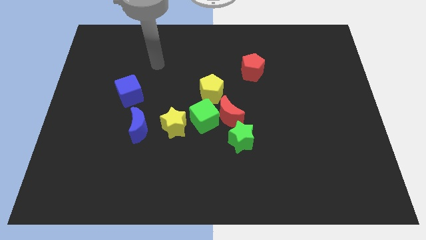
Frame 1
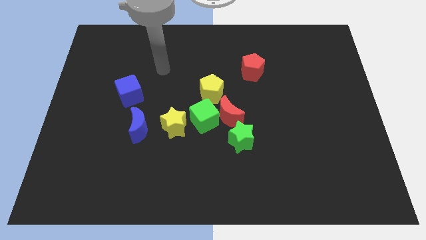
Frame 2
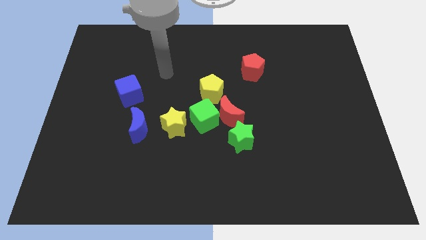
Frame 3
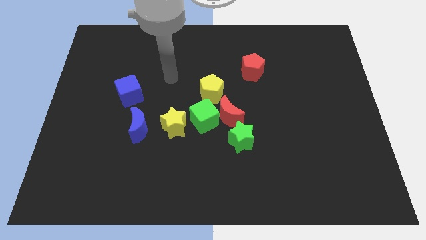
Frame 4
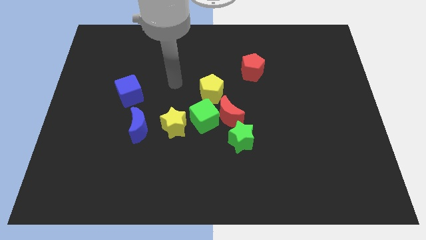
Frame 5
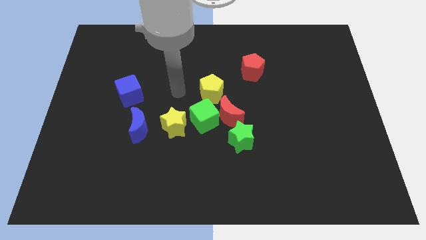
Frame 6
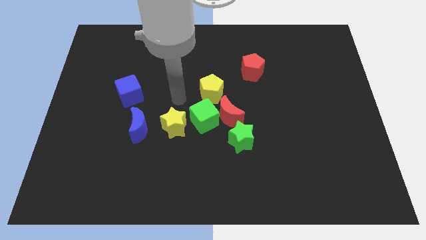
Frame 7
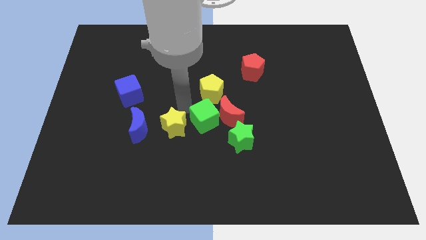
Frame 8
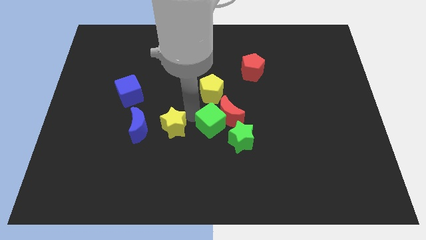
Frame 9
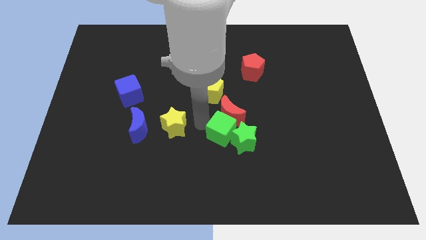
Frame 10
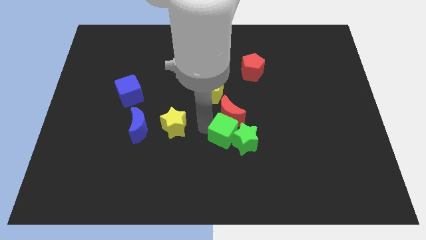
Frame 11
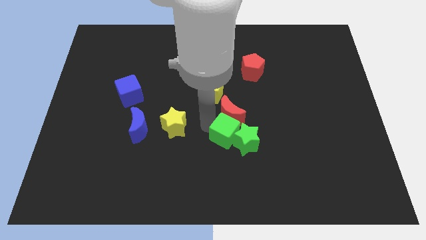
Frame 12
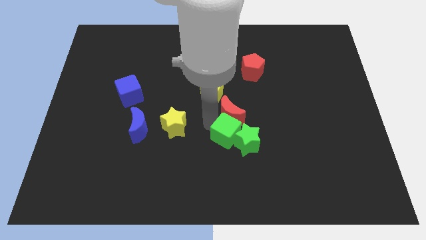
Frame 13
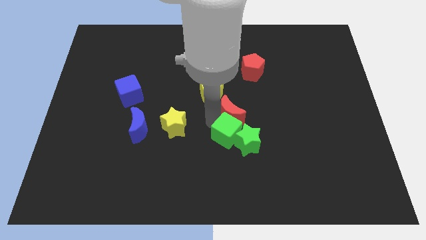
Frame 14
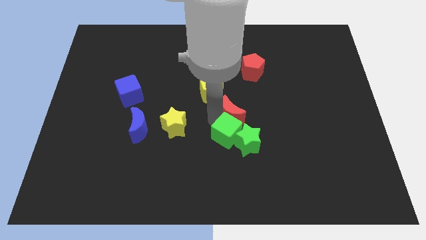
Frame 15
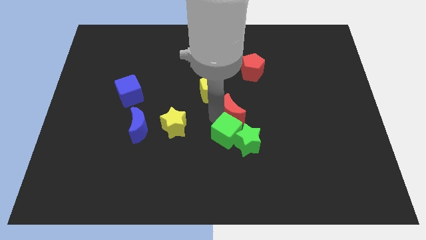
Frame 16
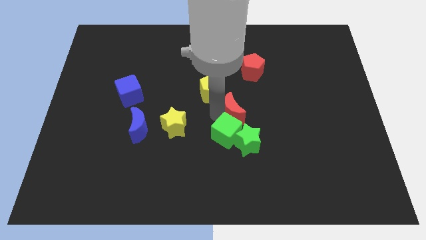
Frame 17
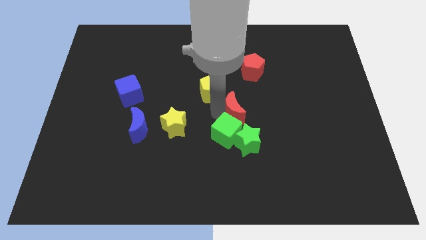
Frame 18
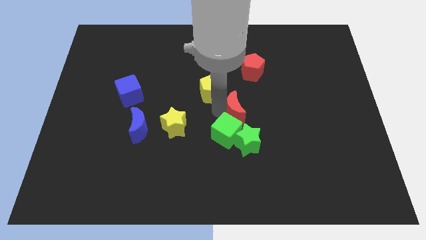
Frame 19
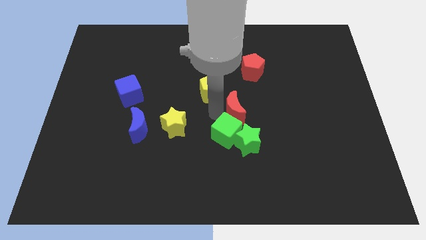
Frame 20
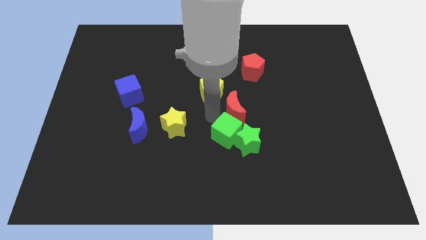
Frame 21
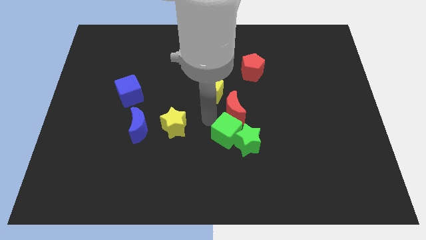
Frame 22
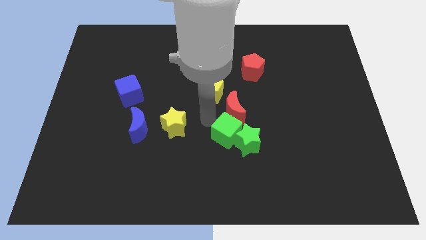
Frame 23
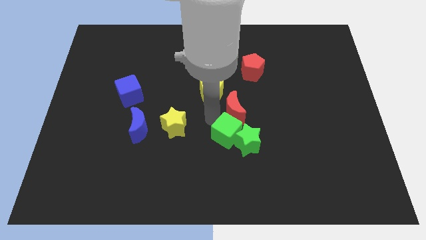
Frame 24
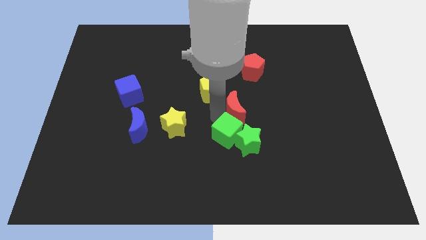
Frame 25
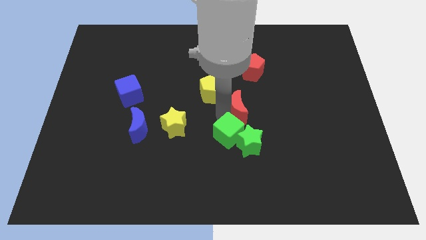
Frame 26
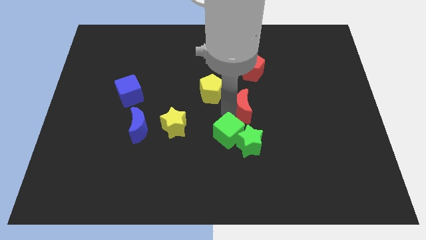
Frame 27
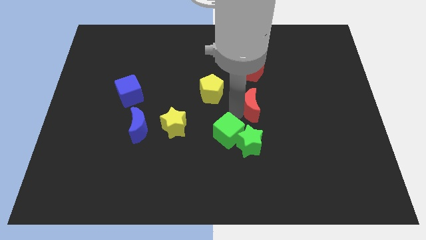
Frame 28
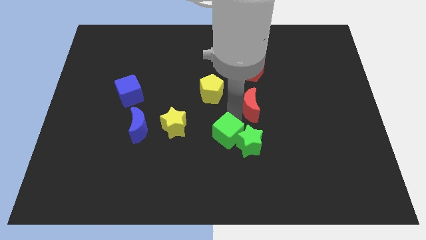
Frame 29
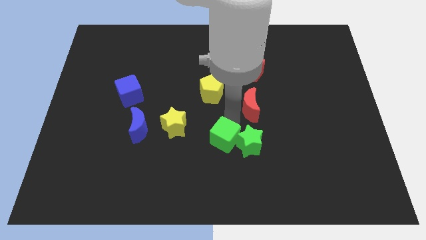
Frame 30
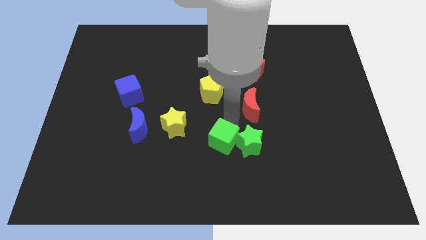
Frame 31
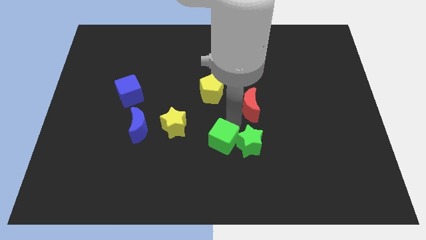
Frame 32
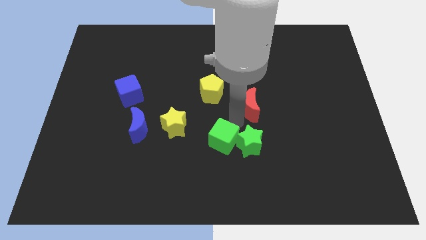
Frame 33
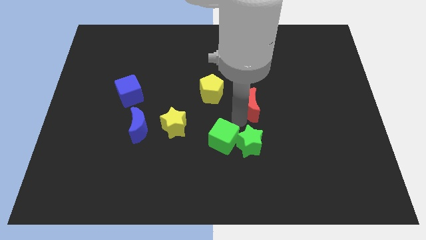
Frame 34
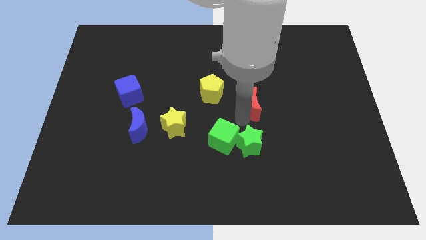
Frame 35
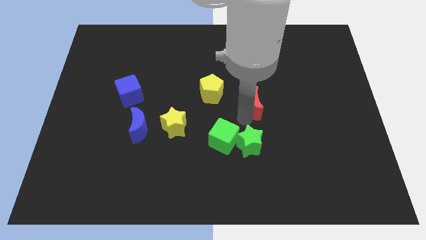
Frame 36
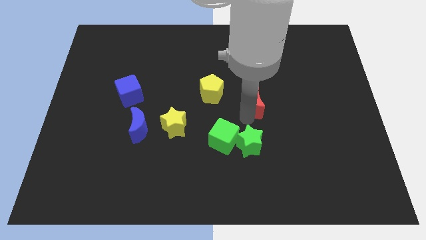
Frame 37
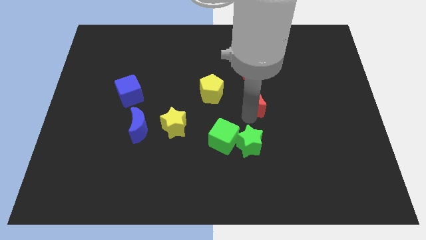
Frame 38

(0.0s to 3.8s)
slide the red moon a bit upwards and to the right

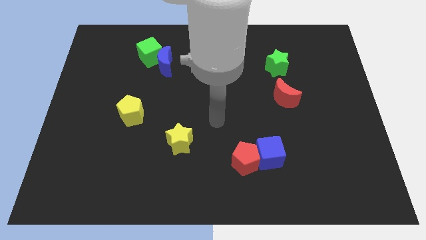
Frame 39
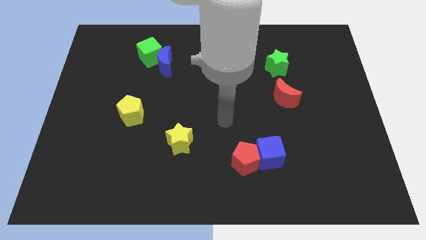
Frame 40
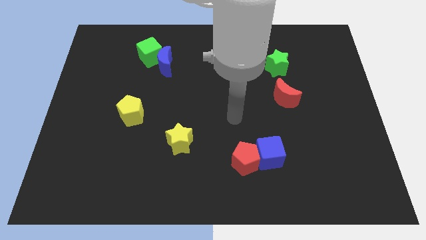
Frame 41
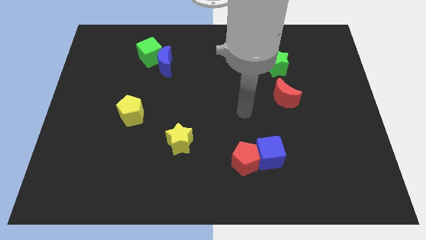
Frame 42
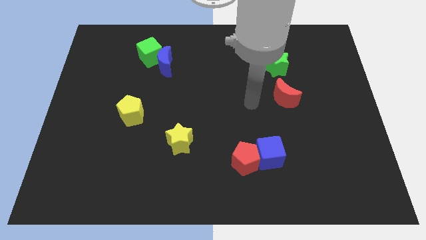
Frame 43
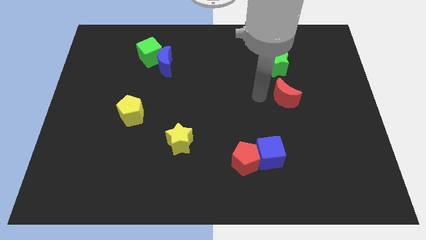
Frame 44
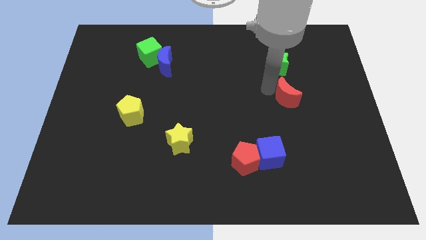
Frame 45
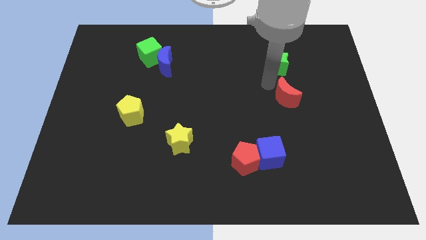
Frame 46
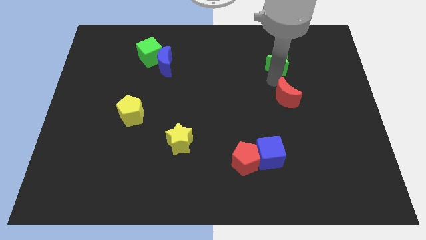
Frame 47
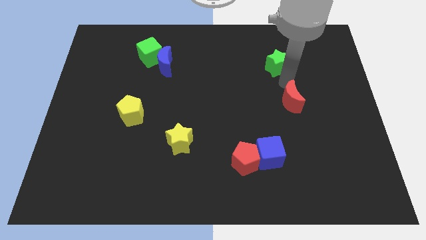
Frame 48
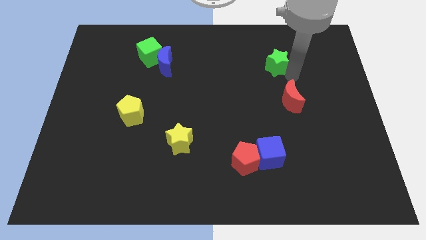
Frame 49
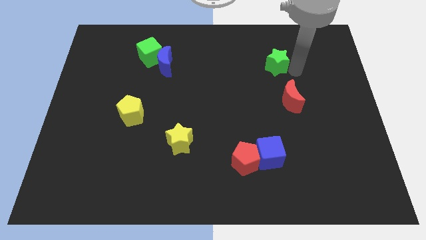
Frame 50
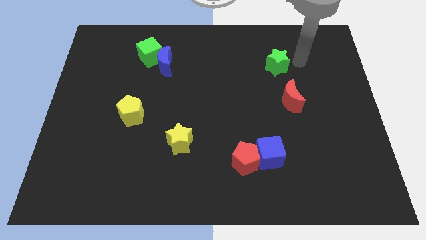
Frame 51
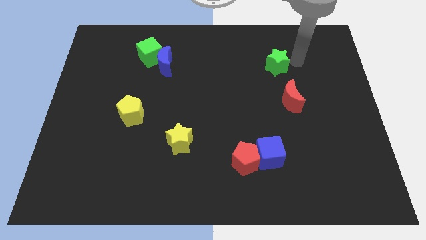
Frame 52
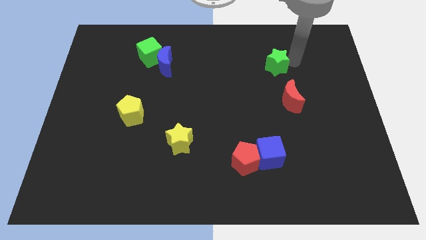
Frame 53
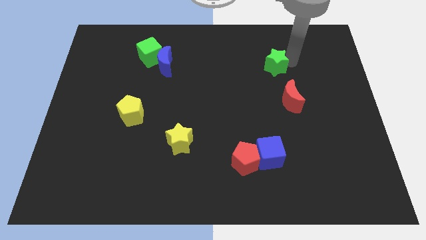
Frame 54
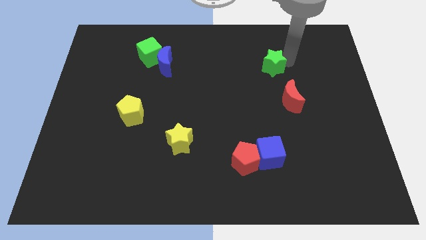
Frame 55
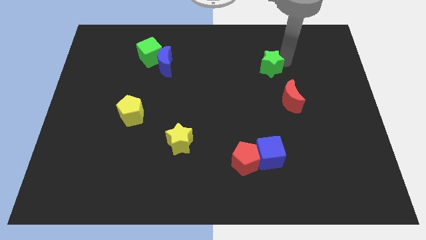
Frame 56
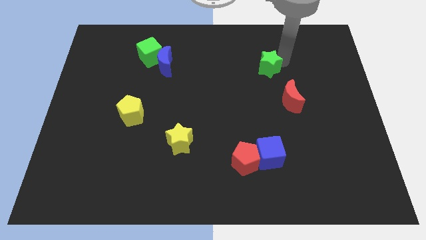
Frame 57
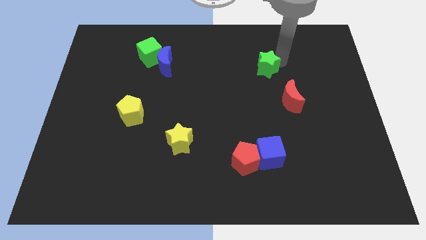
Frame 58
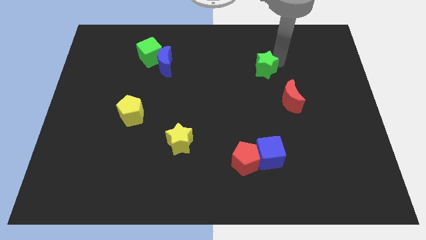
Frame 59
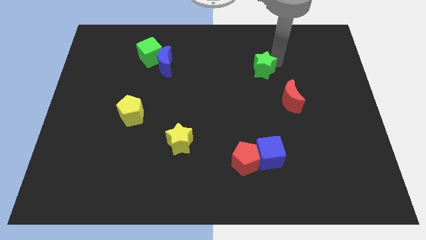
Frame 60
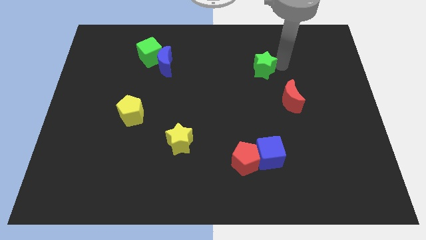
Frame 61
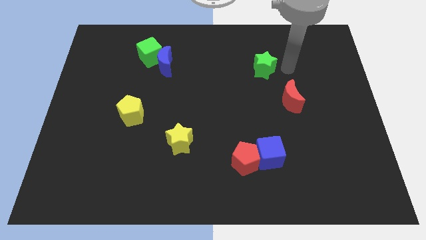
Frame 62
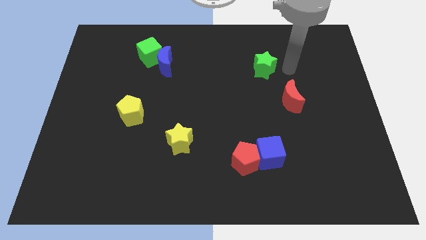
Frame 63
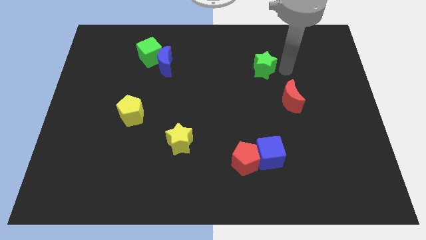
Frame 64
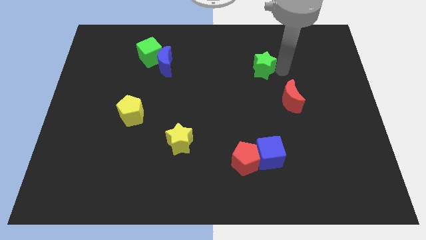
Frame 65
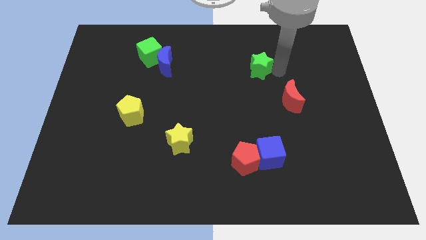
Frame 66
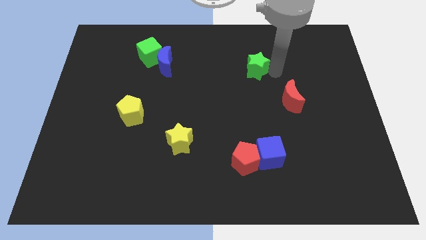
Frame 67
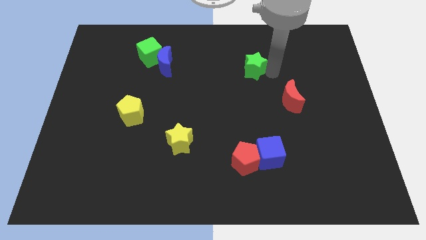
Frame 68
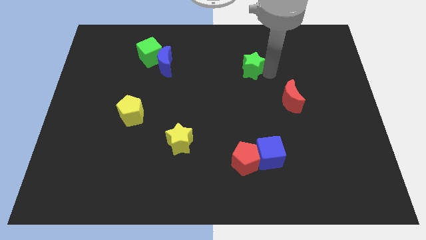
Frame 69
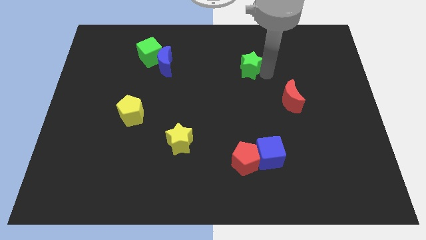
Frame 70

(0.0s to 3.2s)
push the green star left a little bit

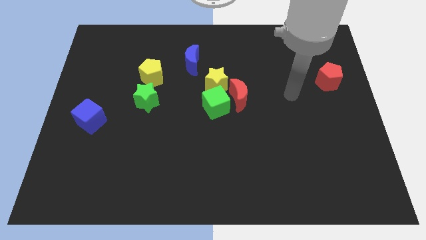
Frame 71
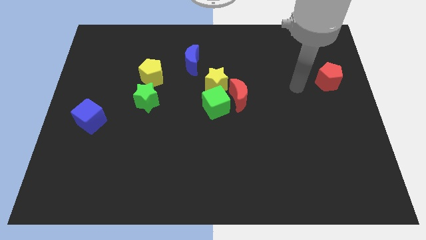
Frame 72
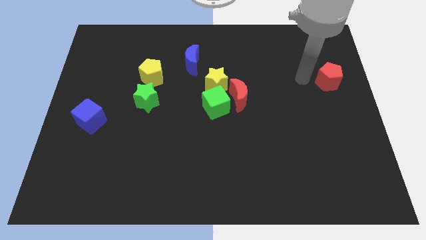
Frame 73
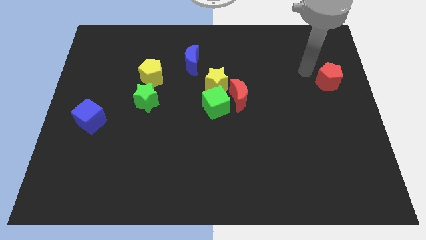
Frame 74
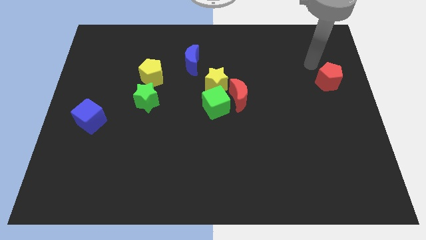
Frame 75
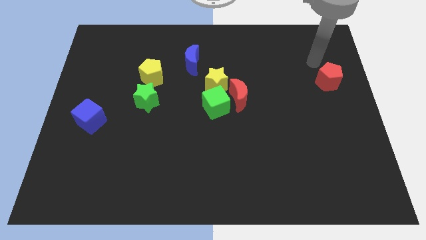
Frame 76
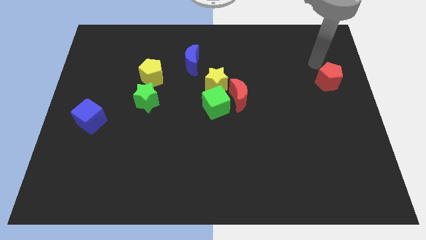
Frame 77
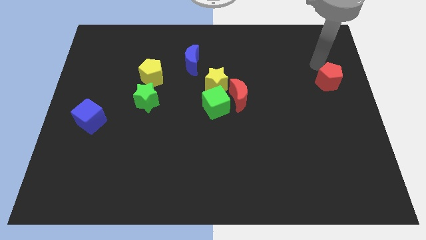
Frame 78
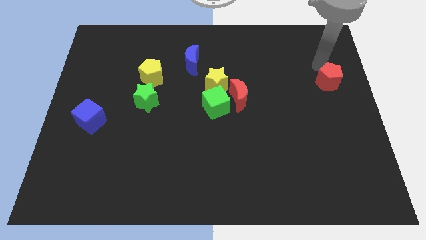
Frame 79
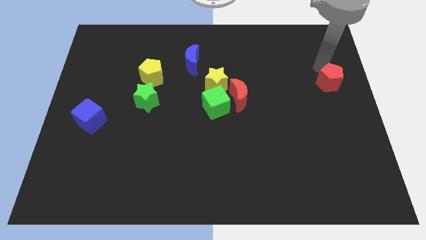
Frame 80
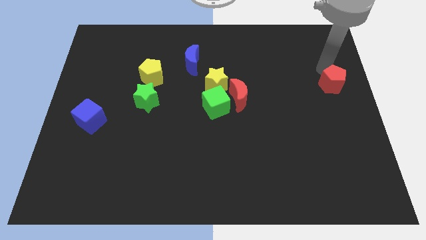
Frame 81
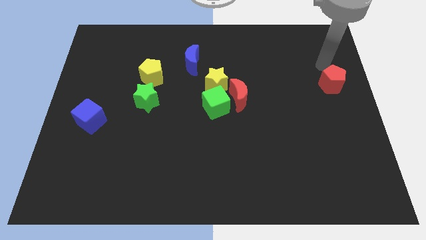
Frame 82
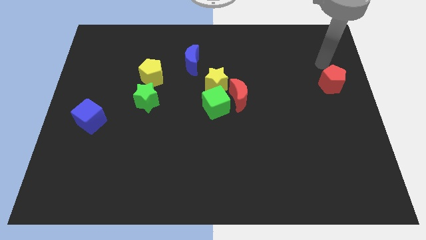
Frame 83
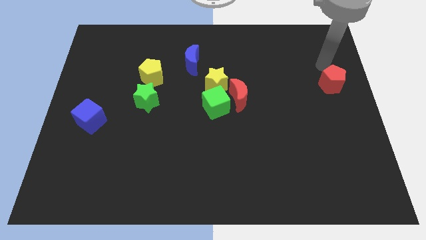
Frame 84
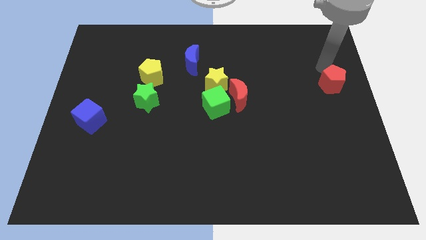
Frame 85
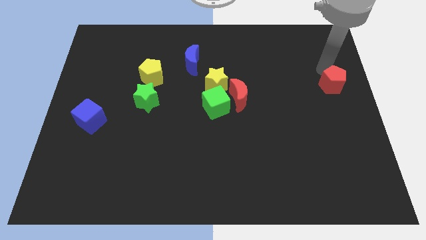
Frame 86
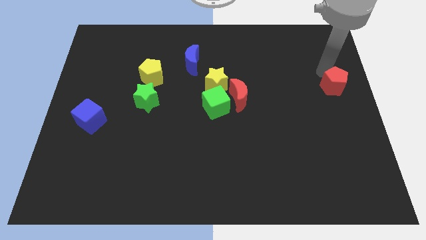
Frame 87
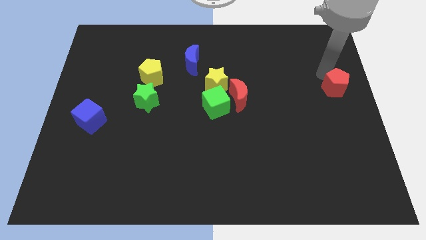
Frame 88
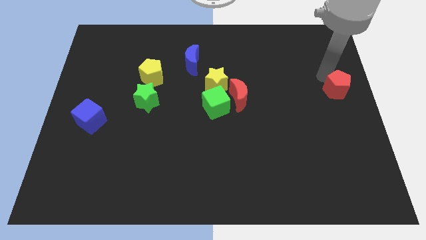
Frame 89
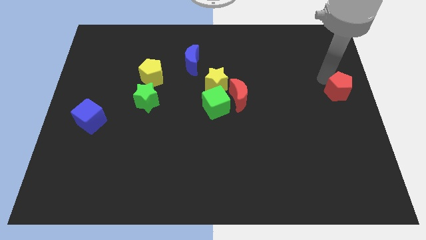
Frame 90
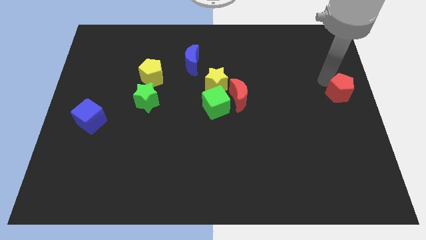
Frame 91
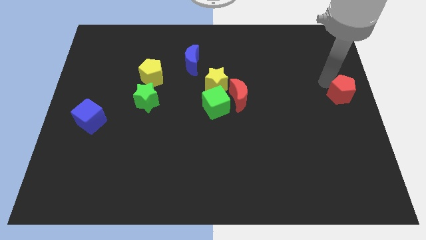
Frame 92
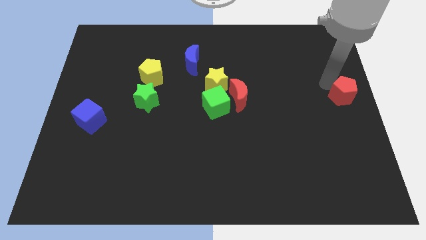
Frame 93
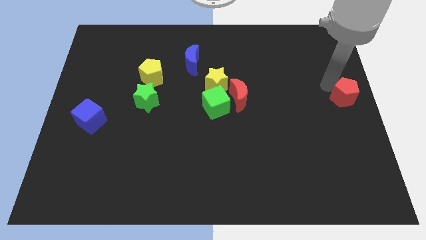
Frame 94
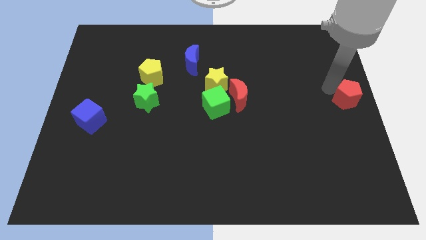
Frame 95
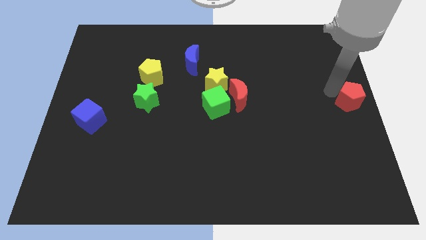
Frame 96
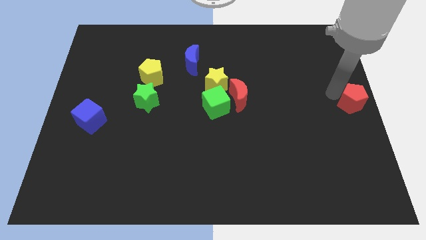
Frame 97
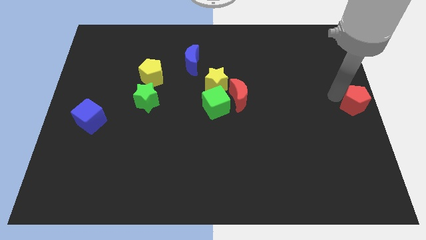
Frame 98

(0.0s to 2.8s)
slightly slide the red pentagon down
